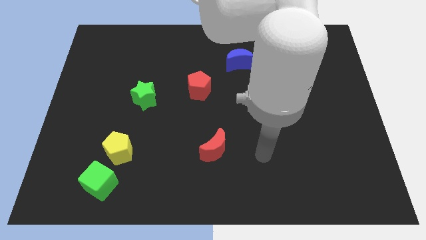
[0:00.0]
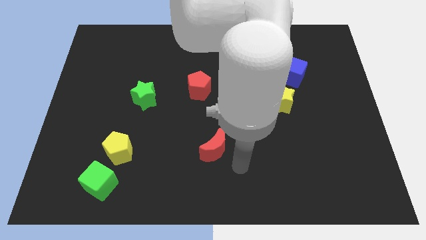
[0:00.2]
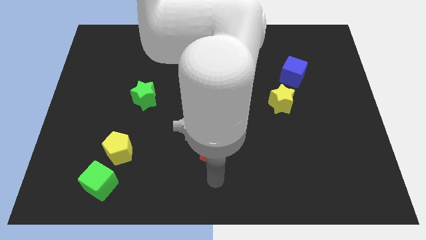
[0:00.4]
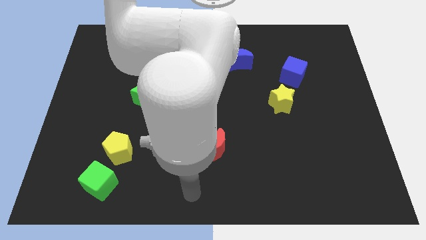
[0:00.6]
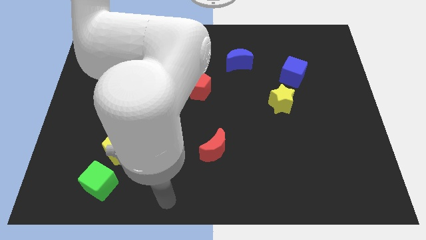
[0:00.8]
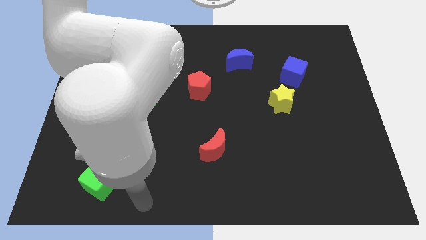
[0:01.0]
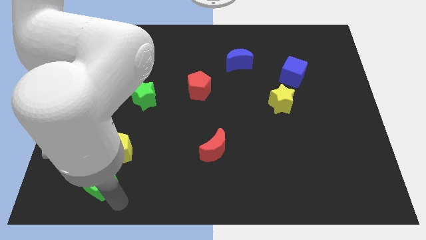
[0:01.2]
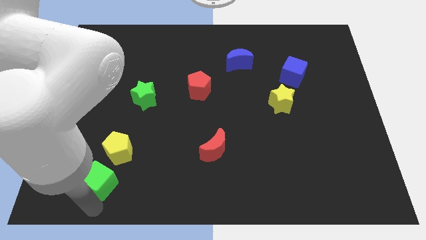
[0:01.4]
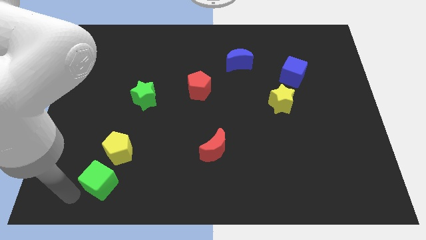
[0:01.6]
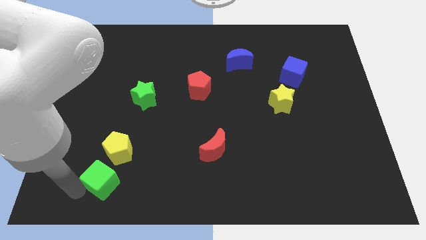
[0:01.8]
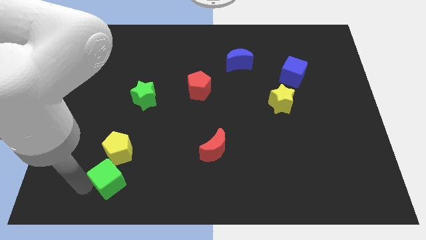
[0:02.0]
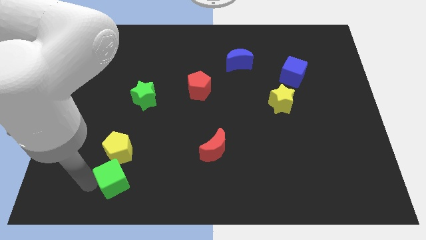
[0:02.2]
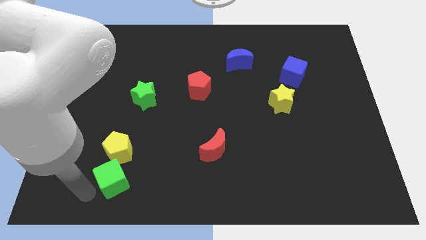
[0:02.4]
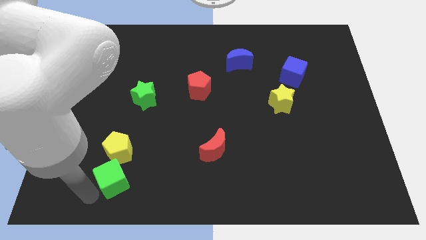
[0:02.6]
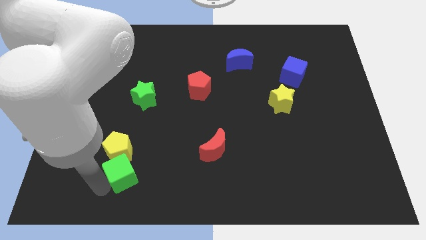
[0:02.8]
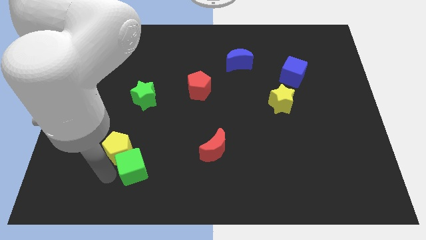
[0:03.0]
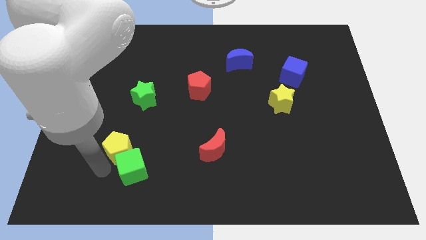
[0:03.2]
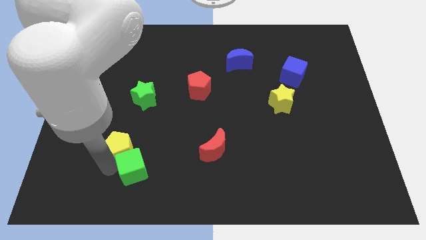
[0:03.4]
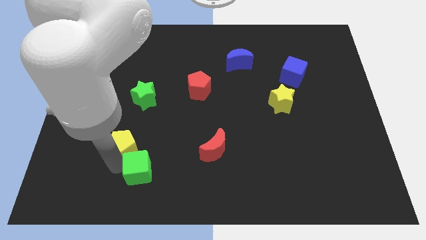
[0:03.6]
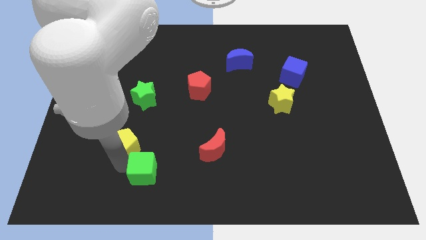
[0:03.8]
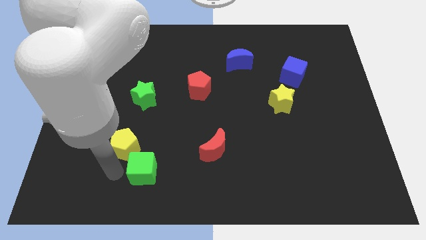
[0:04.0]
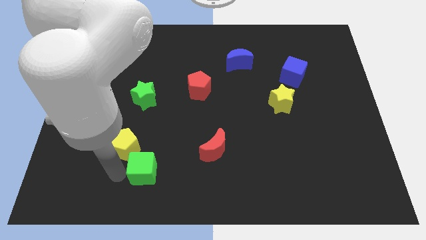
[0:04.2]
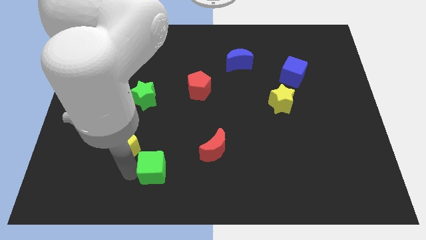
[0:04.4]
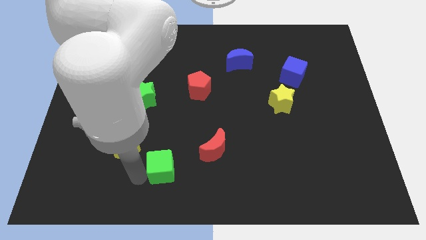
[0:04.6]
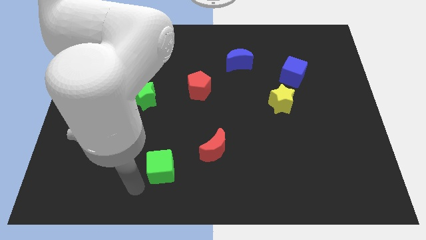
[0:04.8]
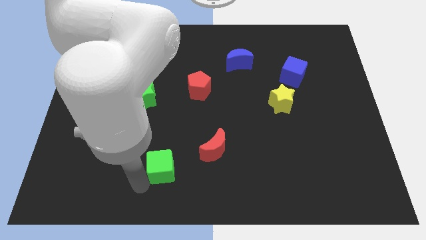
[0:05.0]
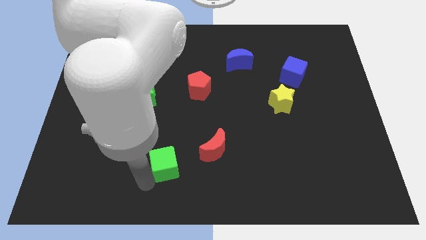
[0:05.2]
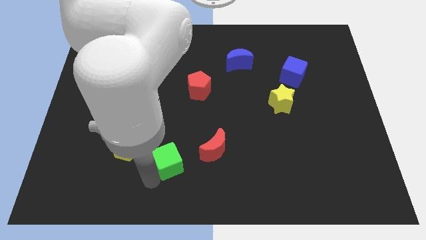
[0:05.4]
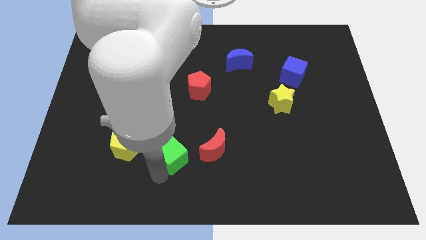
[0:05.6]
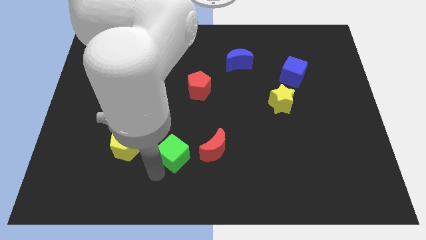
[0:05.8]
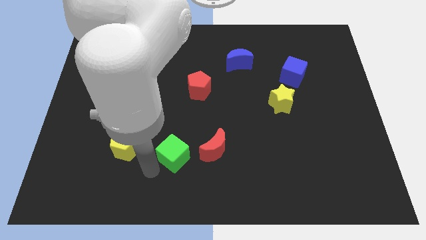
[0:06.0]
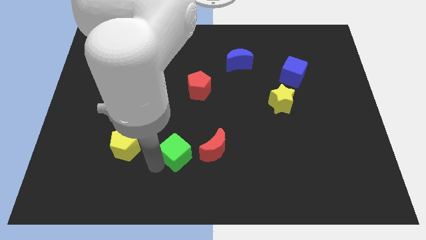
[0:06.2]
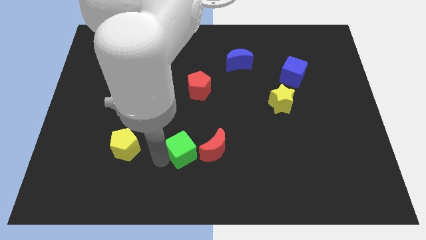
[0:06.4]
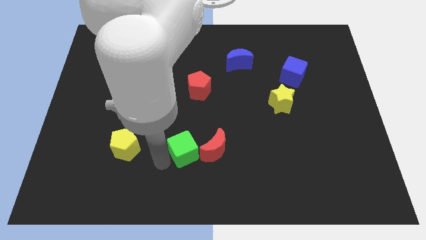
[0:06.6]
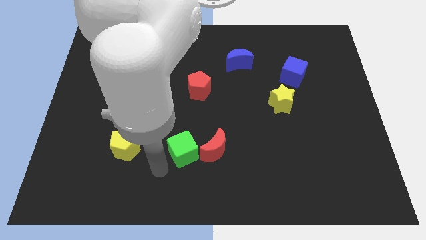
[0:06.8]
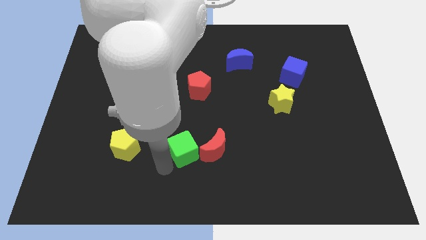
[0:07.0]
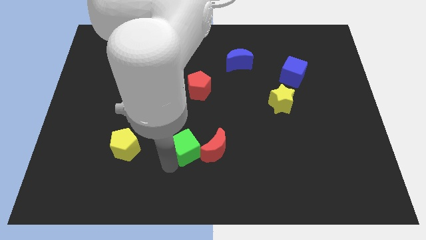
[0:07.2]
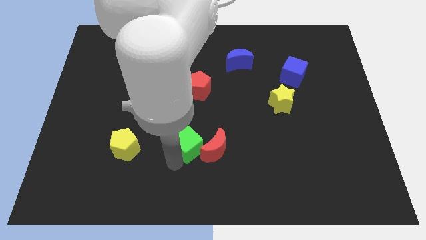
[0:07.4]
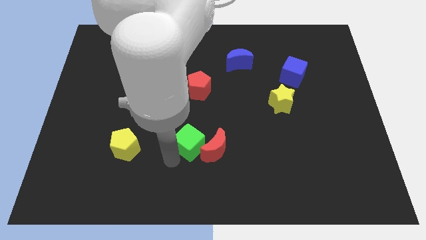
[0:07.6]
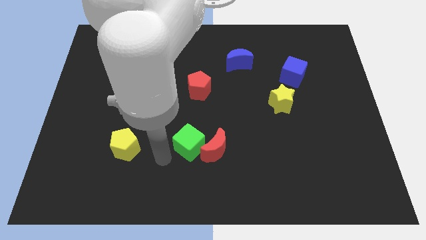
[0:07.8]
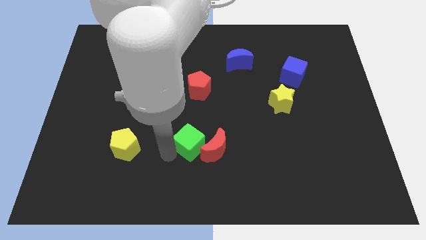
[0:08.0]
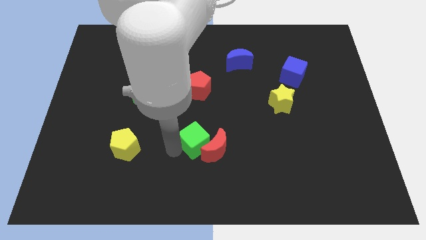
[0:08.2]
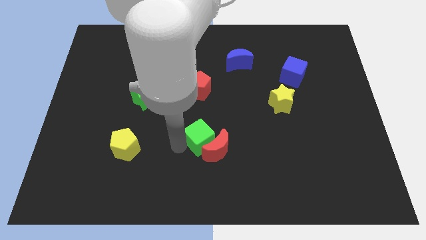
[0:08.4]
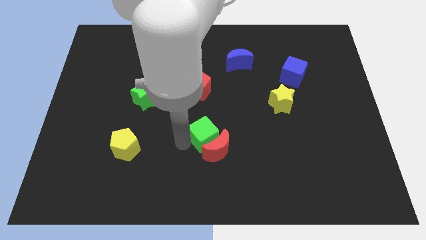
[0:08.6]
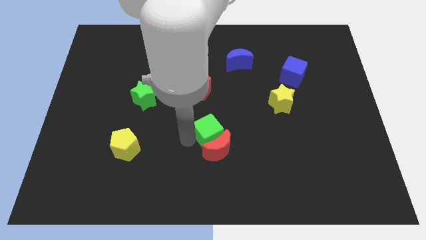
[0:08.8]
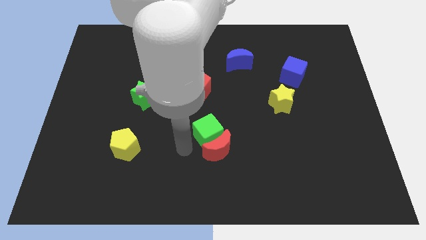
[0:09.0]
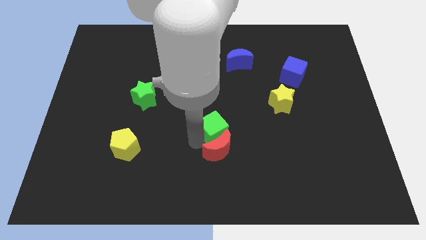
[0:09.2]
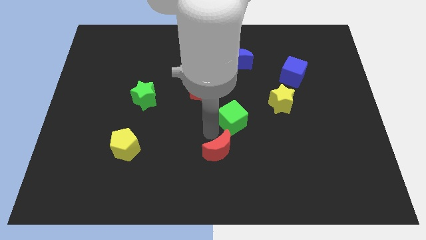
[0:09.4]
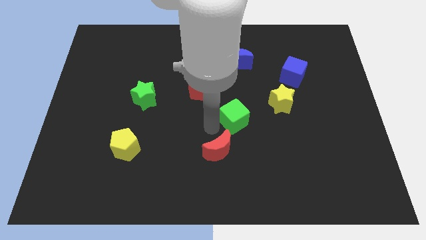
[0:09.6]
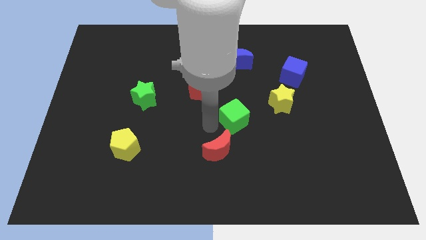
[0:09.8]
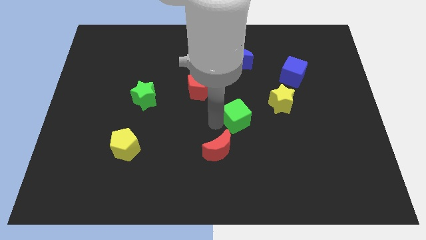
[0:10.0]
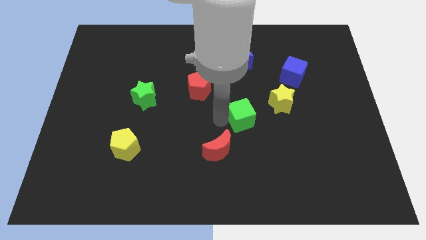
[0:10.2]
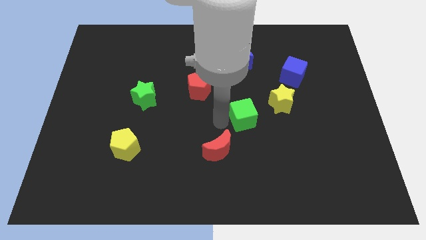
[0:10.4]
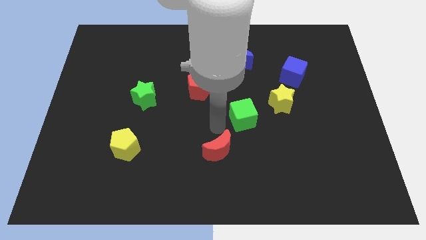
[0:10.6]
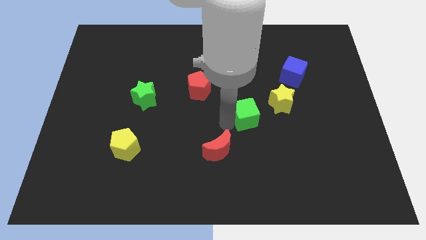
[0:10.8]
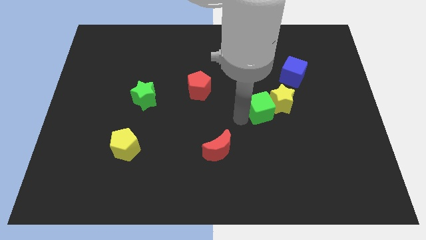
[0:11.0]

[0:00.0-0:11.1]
slide the green cube next to the yellow star
